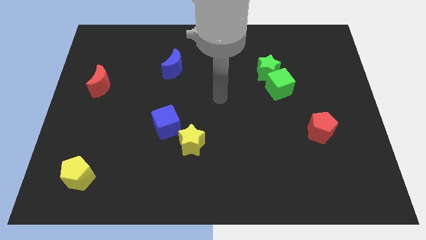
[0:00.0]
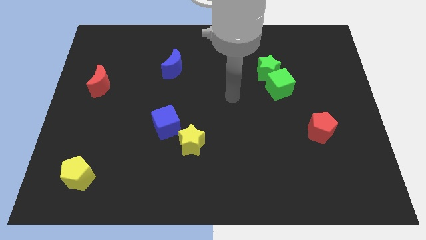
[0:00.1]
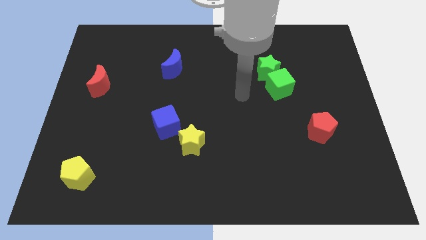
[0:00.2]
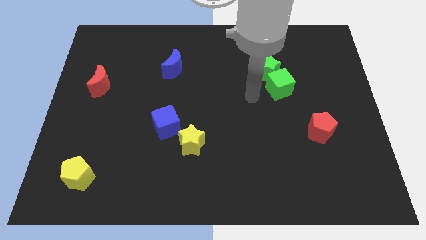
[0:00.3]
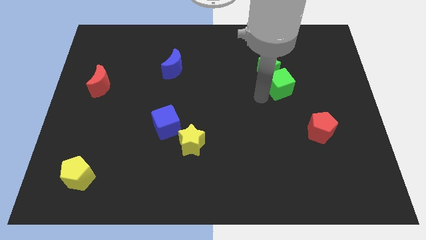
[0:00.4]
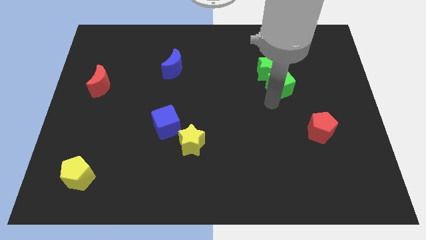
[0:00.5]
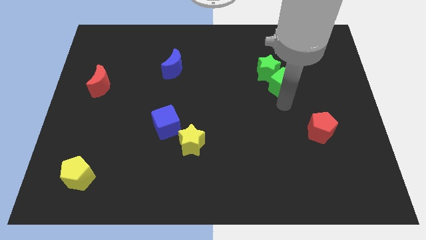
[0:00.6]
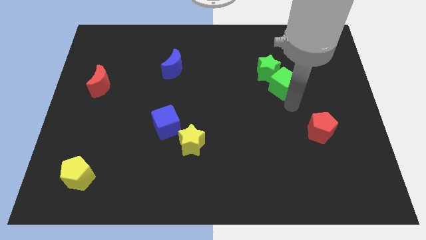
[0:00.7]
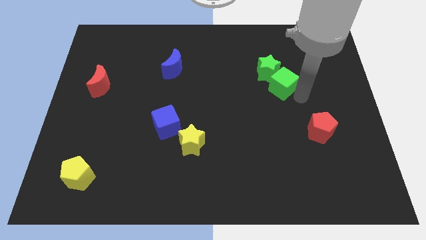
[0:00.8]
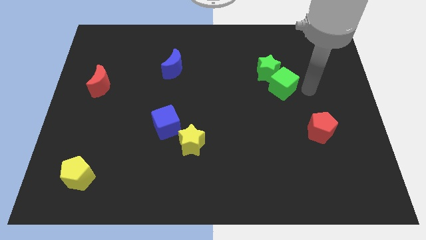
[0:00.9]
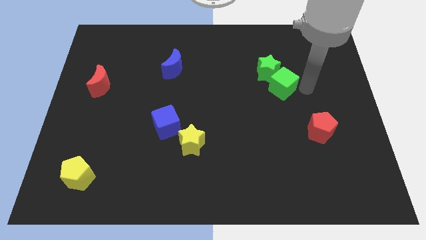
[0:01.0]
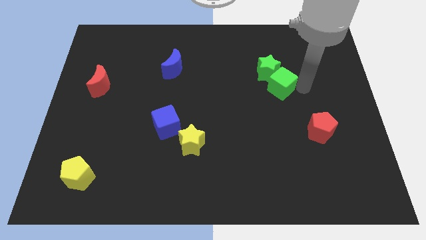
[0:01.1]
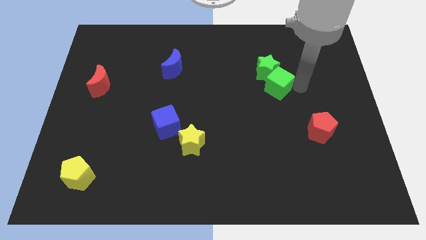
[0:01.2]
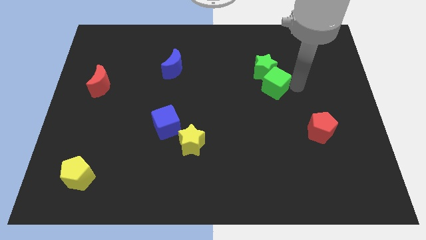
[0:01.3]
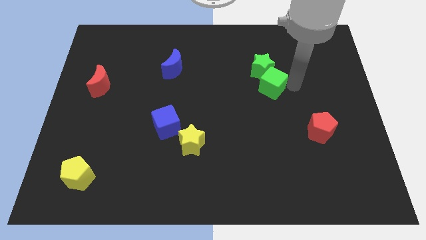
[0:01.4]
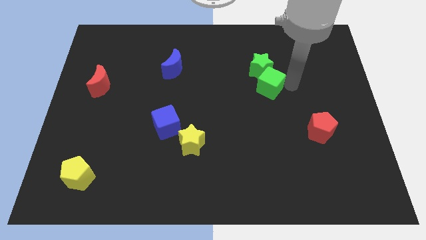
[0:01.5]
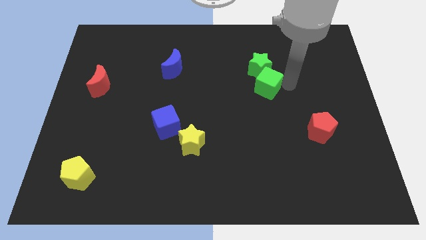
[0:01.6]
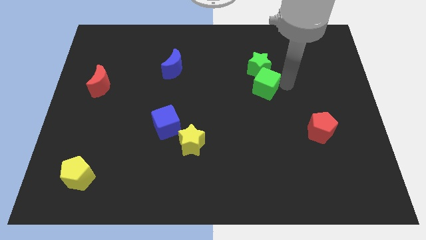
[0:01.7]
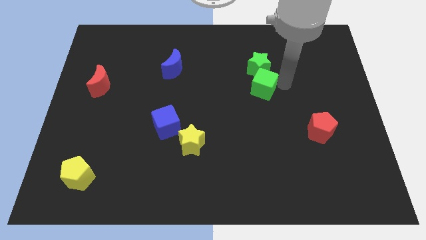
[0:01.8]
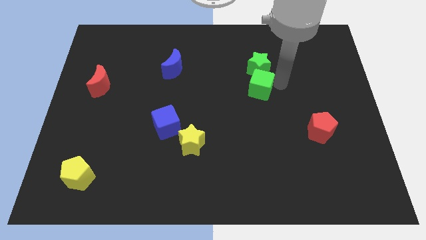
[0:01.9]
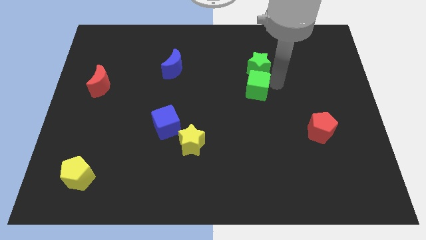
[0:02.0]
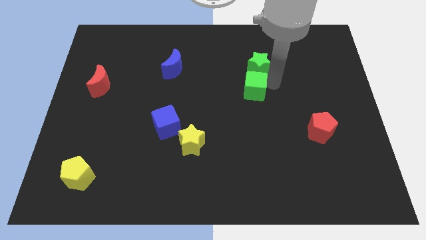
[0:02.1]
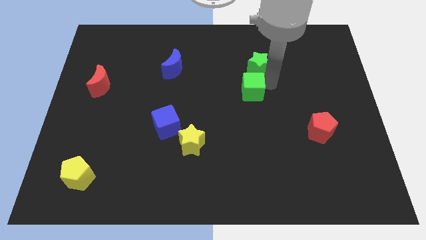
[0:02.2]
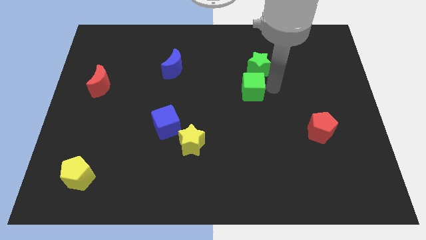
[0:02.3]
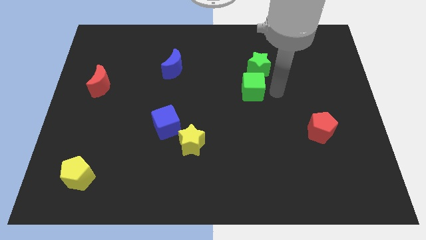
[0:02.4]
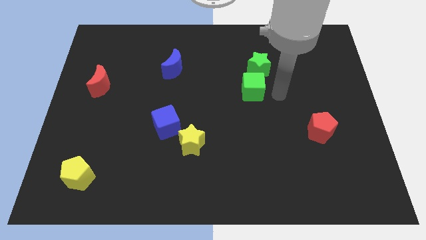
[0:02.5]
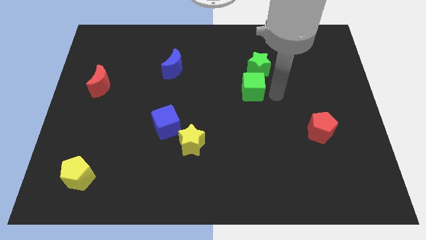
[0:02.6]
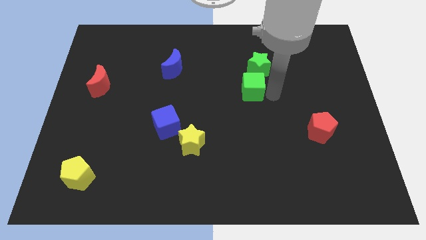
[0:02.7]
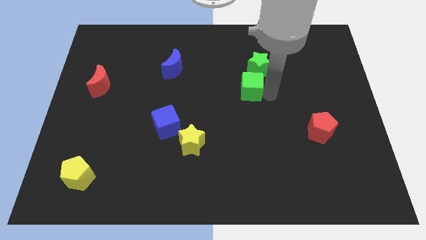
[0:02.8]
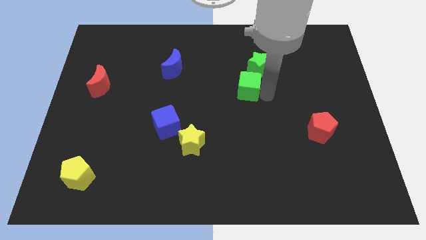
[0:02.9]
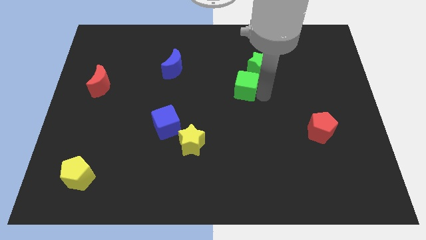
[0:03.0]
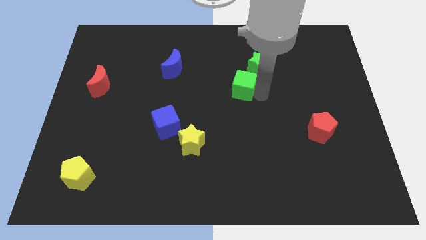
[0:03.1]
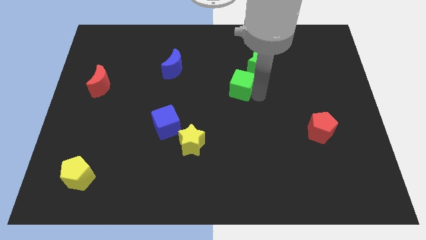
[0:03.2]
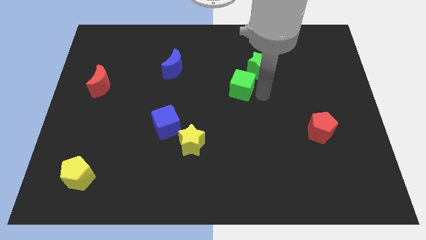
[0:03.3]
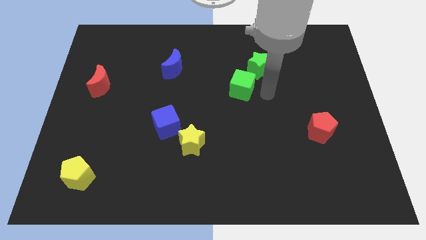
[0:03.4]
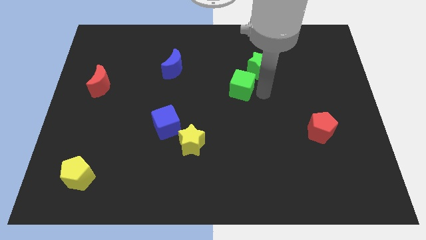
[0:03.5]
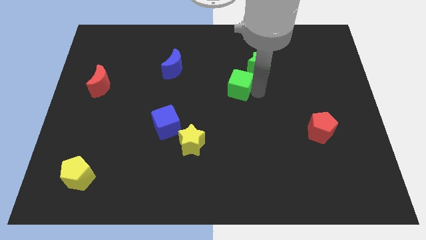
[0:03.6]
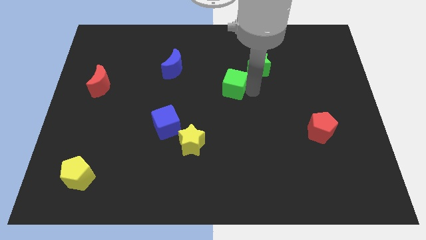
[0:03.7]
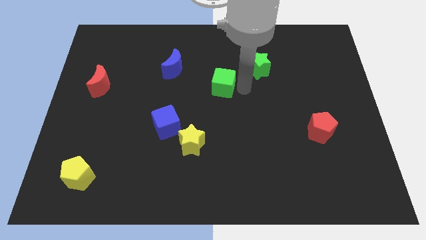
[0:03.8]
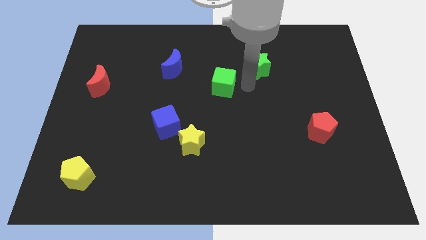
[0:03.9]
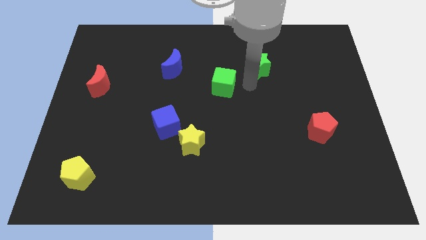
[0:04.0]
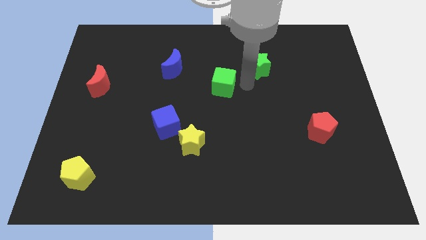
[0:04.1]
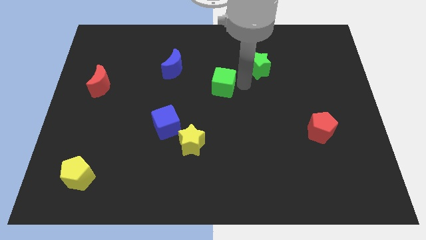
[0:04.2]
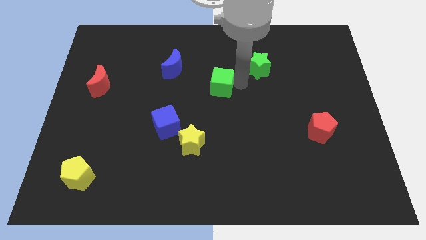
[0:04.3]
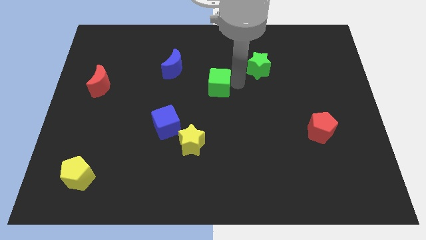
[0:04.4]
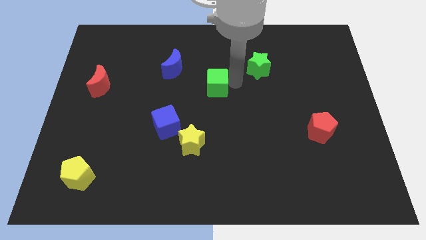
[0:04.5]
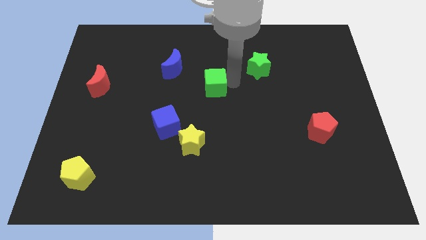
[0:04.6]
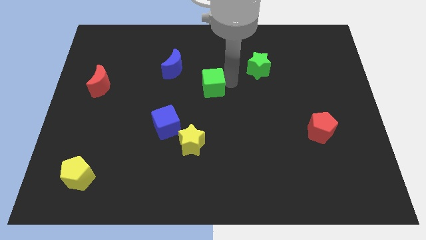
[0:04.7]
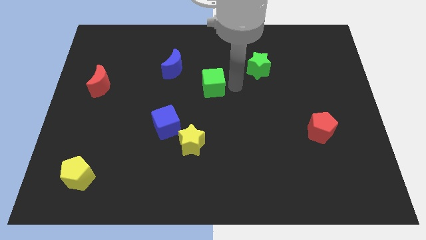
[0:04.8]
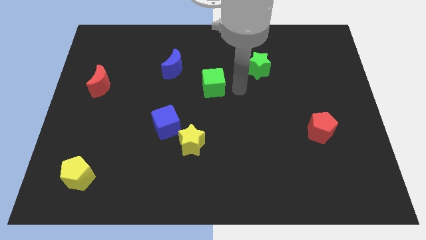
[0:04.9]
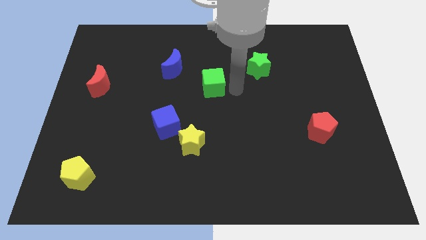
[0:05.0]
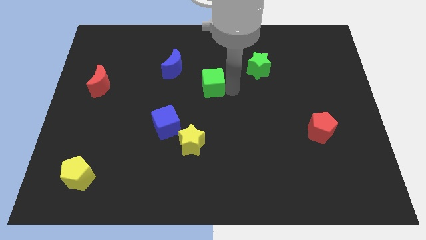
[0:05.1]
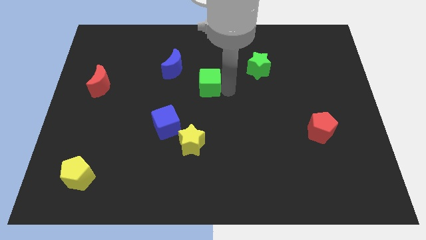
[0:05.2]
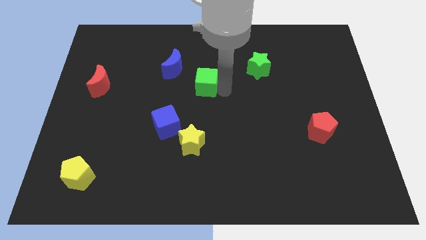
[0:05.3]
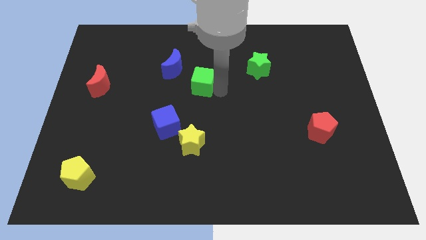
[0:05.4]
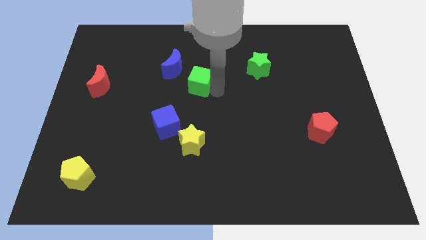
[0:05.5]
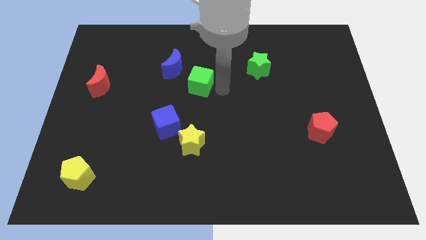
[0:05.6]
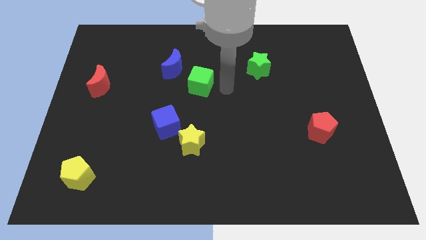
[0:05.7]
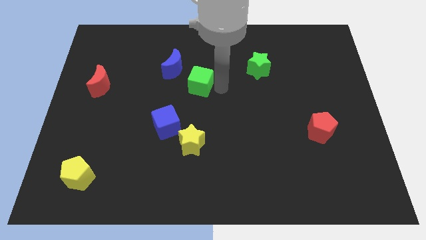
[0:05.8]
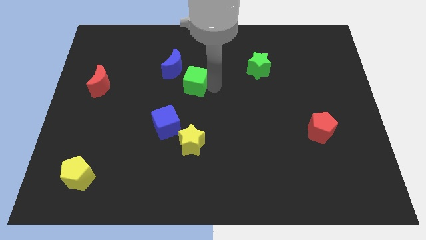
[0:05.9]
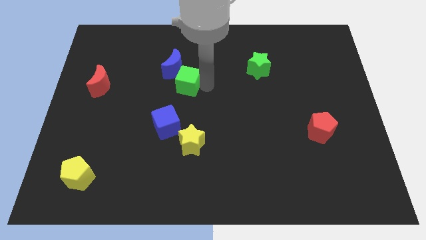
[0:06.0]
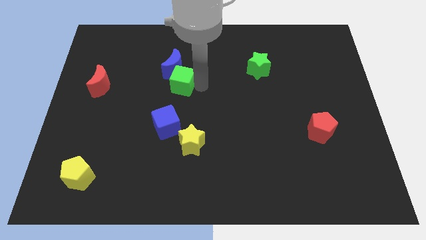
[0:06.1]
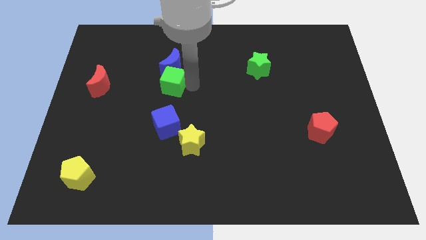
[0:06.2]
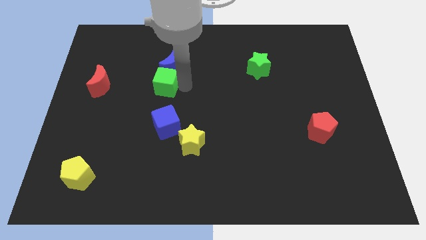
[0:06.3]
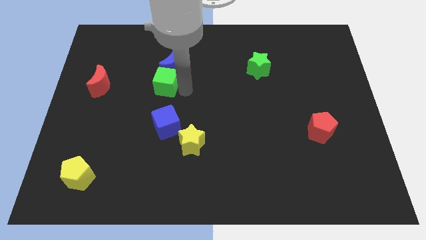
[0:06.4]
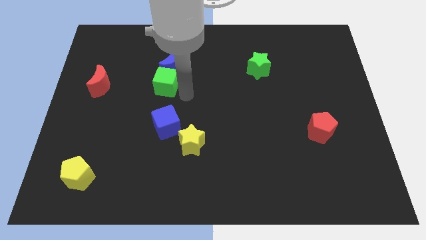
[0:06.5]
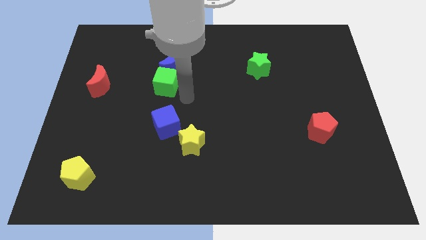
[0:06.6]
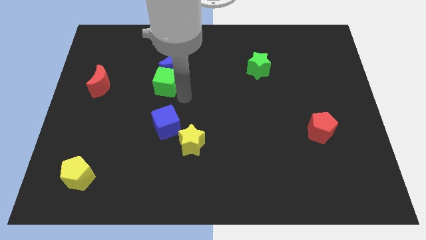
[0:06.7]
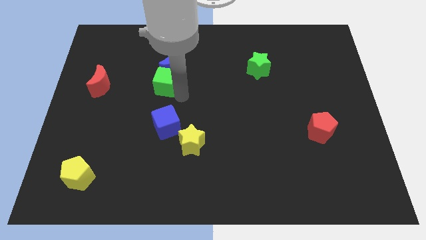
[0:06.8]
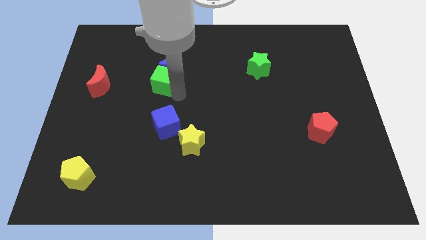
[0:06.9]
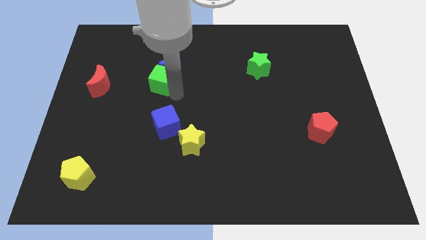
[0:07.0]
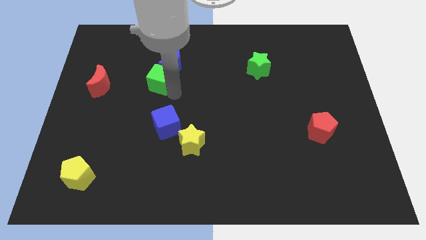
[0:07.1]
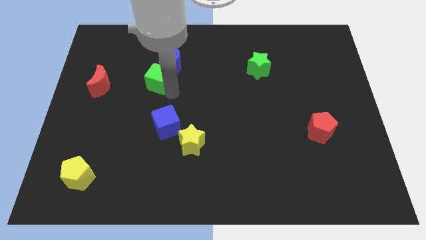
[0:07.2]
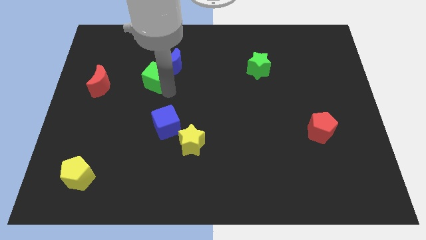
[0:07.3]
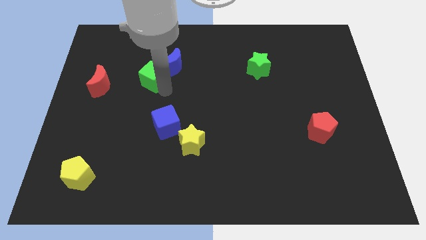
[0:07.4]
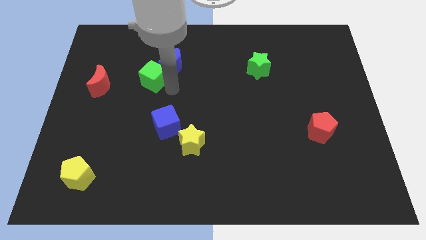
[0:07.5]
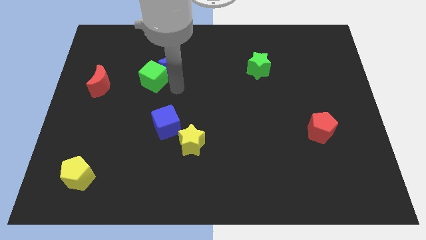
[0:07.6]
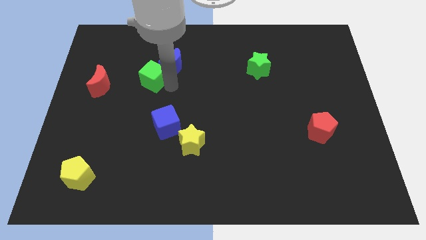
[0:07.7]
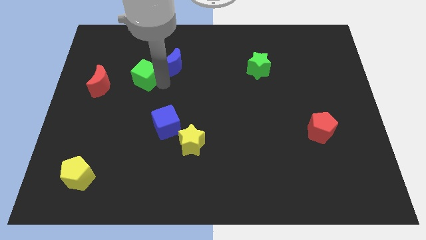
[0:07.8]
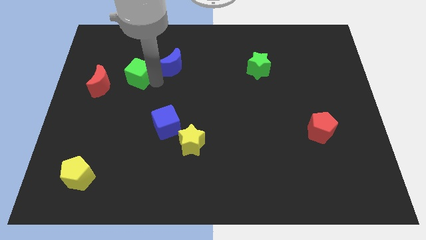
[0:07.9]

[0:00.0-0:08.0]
push the green cube to the top right side of the red moon
